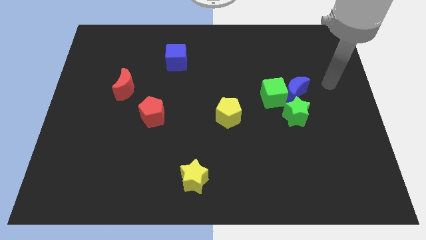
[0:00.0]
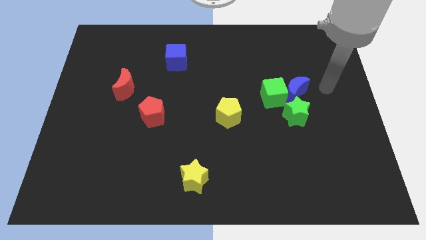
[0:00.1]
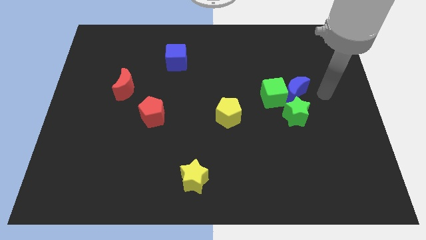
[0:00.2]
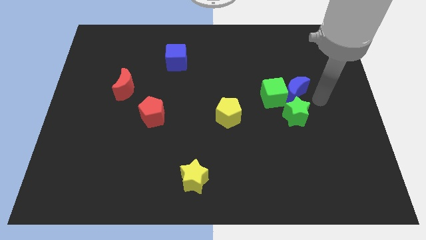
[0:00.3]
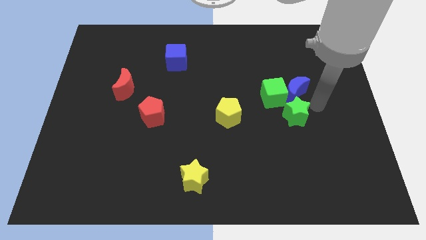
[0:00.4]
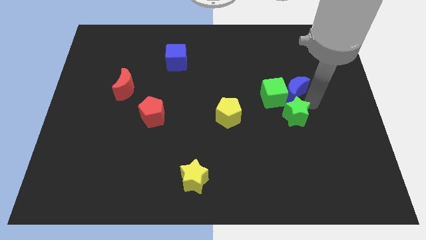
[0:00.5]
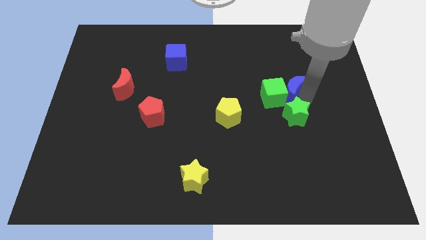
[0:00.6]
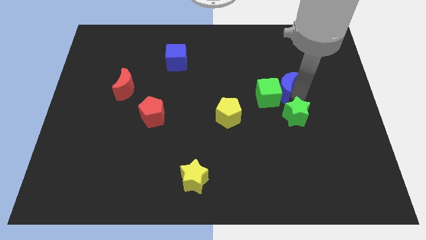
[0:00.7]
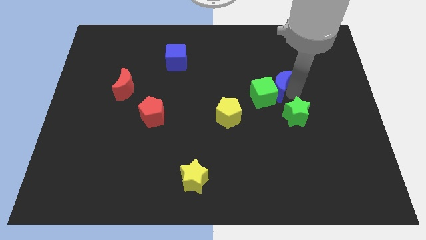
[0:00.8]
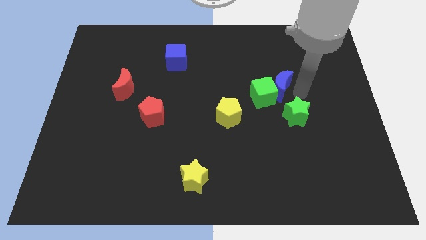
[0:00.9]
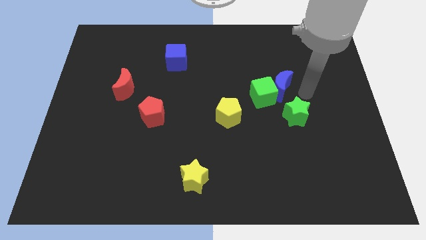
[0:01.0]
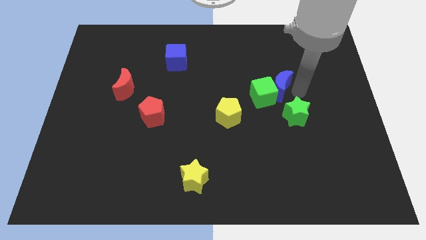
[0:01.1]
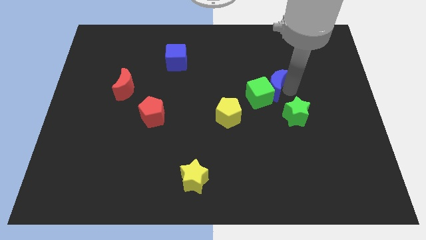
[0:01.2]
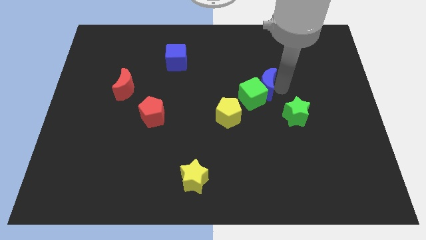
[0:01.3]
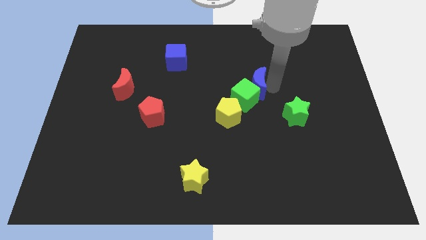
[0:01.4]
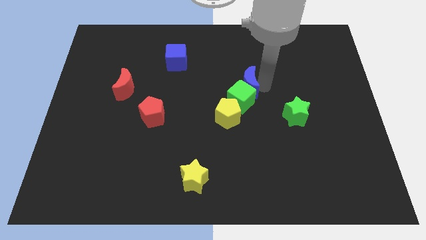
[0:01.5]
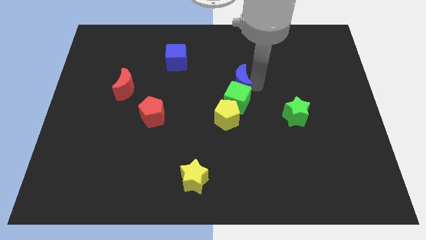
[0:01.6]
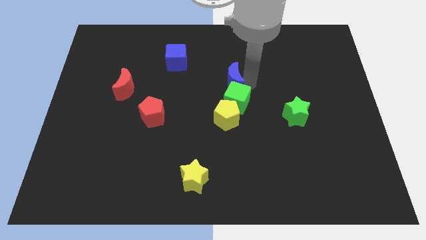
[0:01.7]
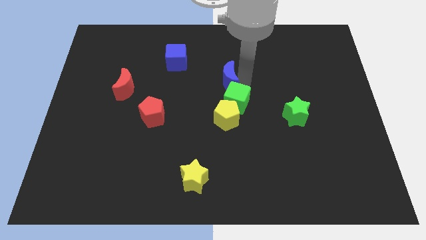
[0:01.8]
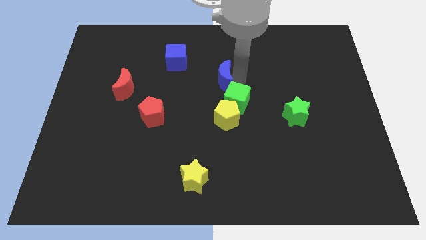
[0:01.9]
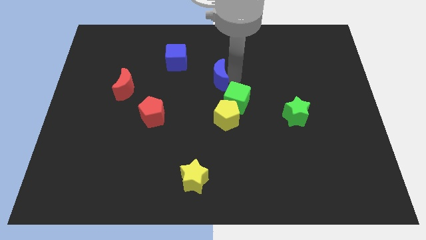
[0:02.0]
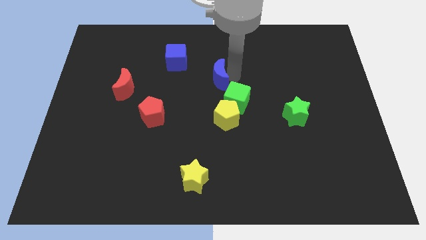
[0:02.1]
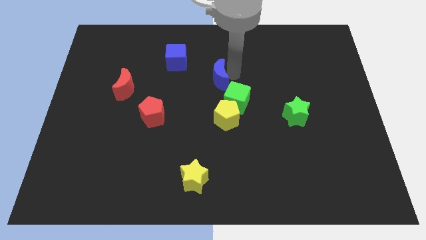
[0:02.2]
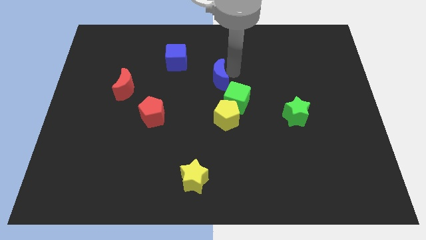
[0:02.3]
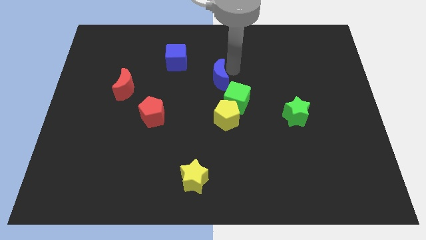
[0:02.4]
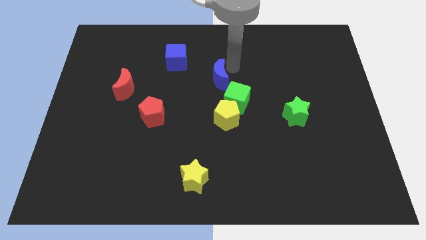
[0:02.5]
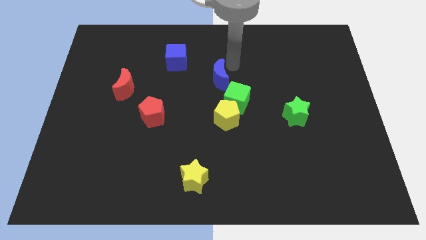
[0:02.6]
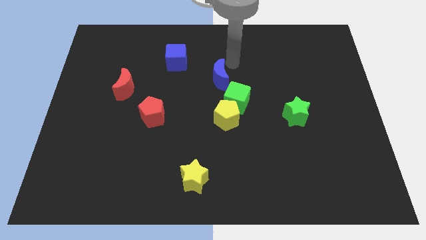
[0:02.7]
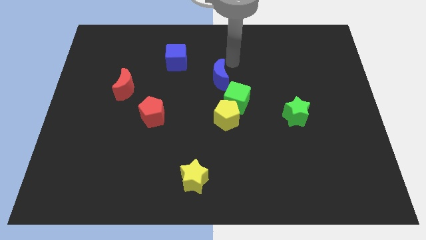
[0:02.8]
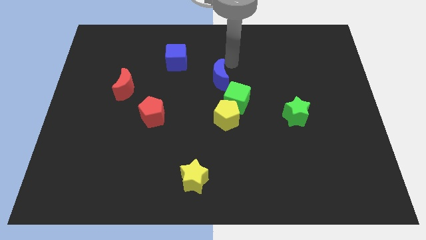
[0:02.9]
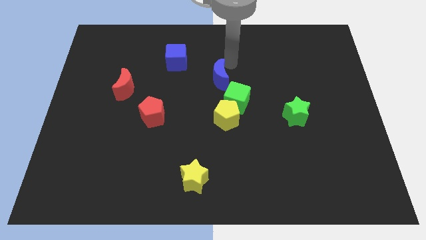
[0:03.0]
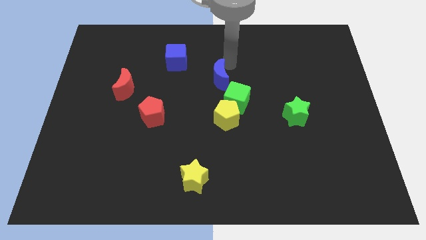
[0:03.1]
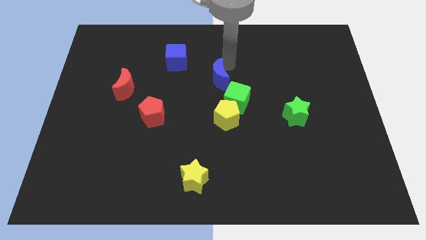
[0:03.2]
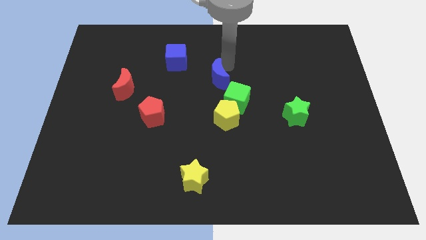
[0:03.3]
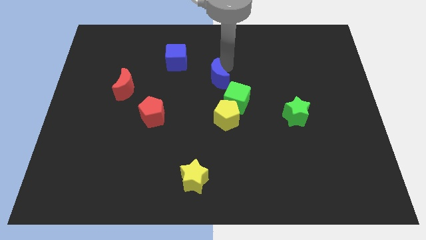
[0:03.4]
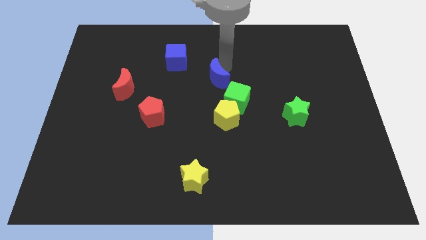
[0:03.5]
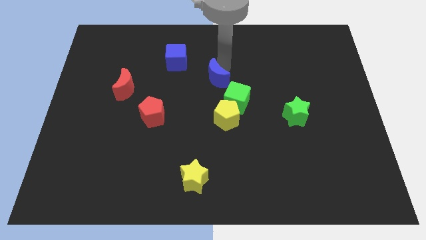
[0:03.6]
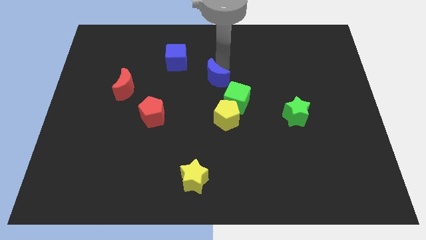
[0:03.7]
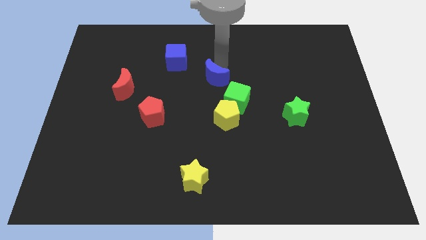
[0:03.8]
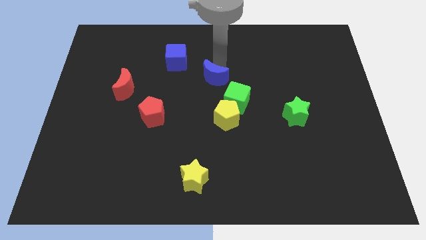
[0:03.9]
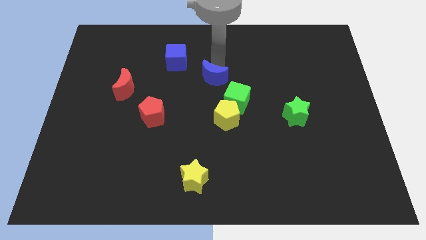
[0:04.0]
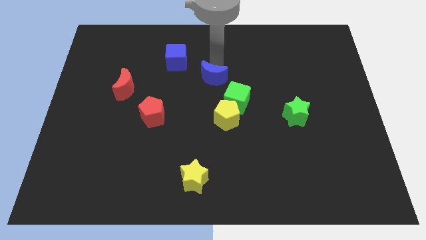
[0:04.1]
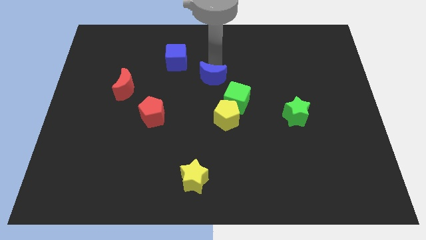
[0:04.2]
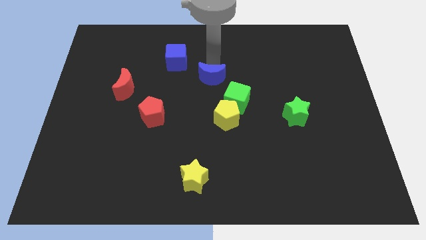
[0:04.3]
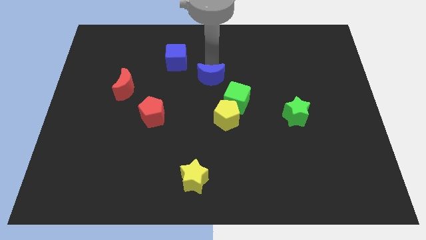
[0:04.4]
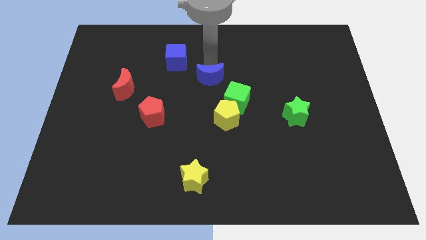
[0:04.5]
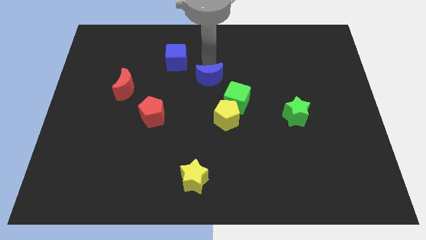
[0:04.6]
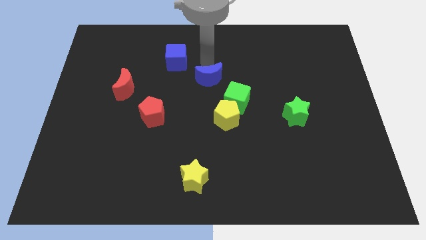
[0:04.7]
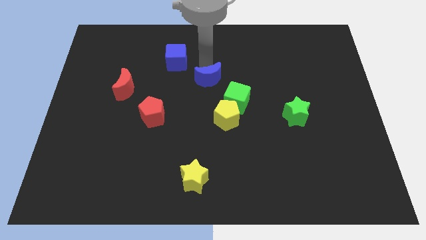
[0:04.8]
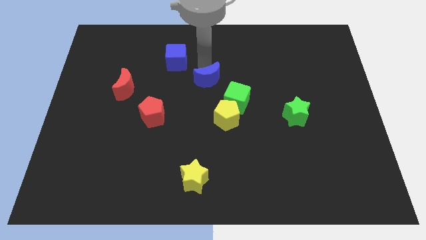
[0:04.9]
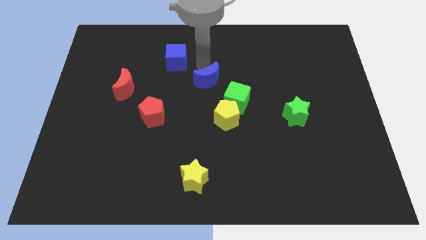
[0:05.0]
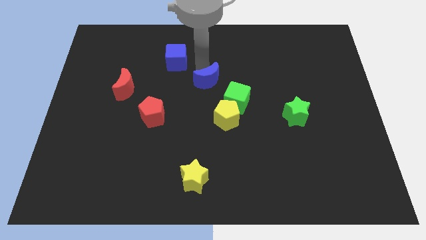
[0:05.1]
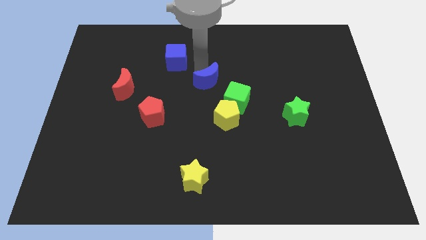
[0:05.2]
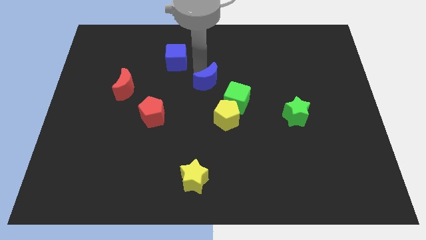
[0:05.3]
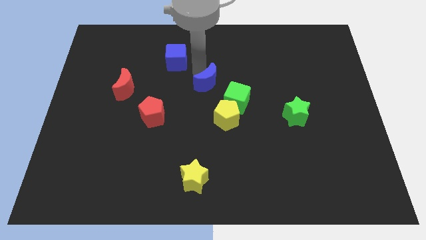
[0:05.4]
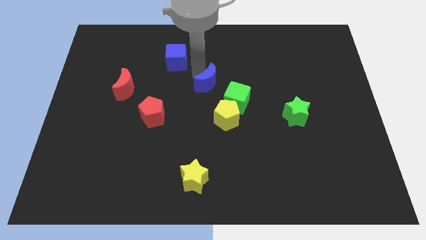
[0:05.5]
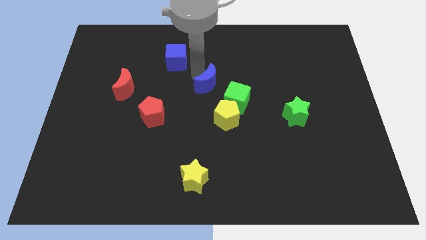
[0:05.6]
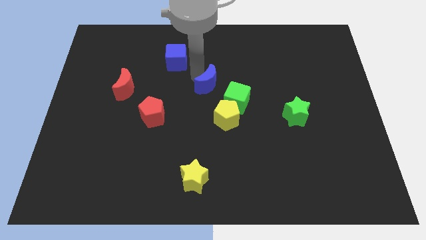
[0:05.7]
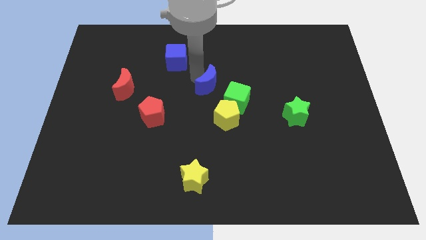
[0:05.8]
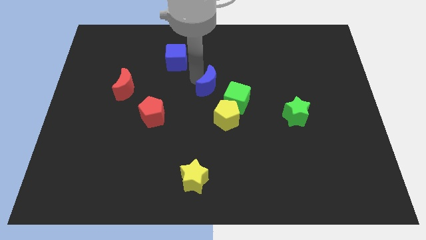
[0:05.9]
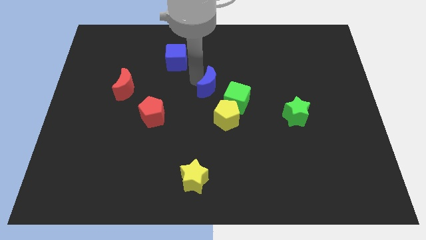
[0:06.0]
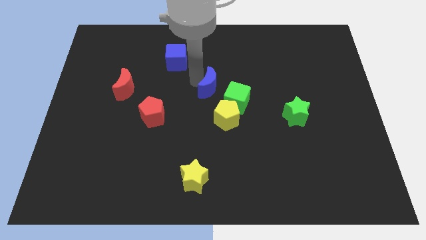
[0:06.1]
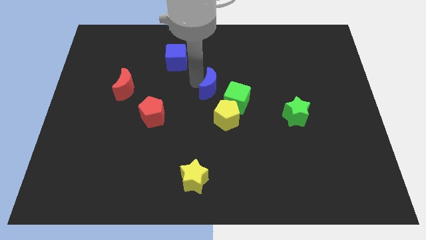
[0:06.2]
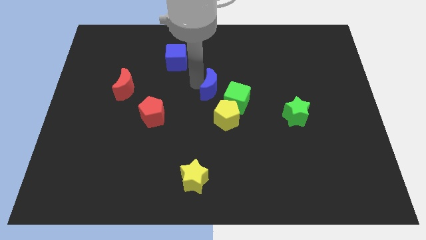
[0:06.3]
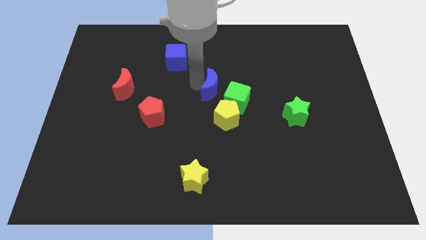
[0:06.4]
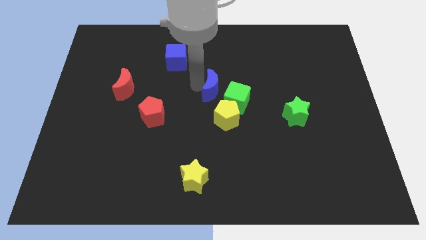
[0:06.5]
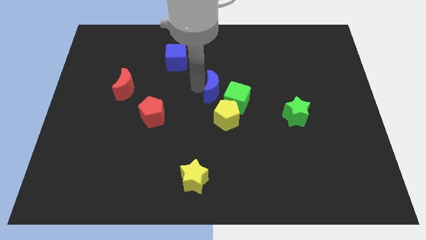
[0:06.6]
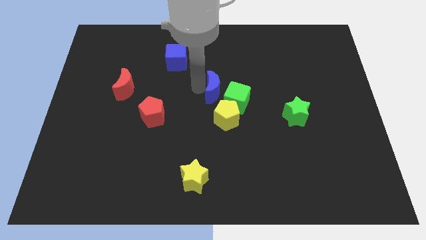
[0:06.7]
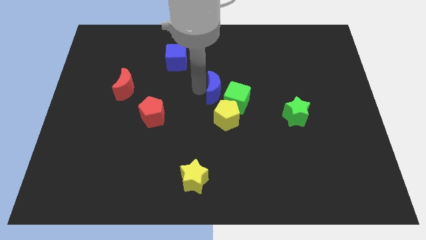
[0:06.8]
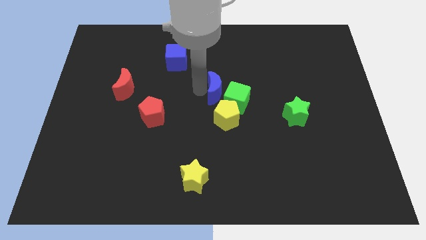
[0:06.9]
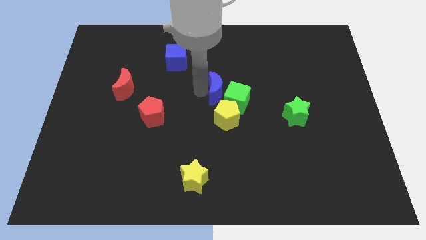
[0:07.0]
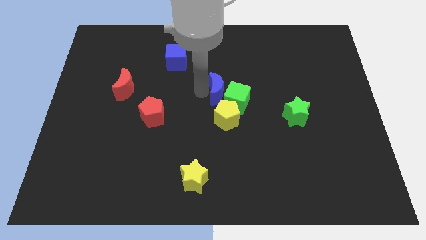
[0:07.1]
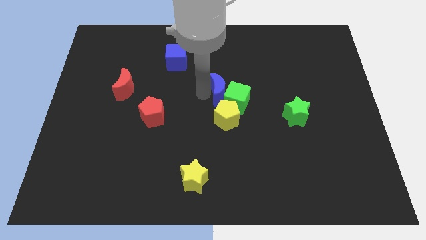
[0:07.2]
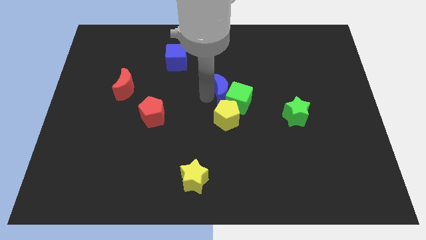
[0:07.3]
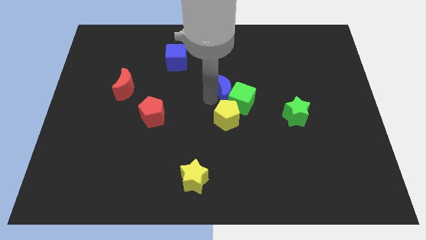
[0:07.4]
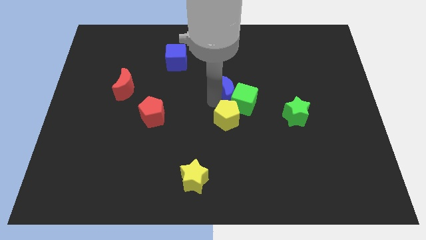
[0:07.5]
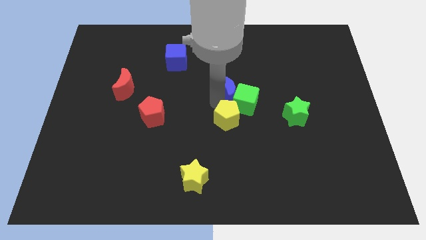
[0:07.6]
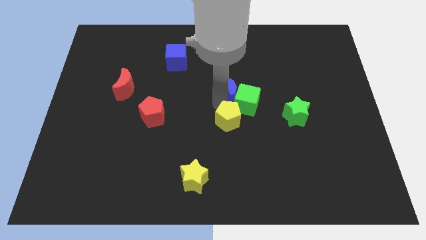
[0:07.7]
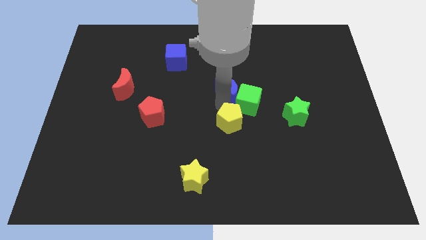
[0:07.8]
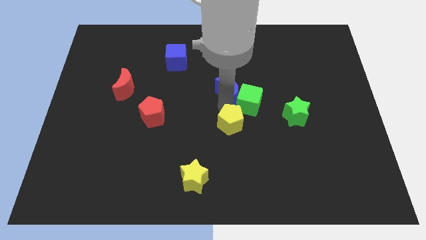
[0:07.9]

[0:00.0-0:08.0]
put the blue moon diagonally up and to the left of the green cube
